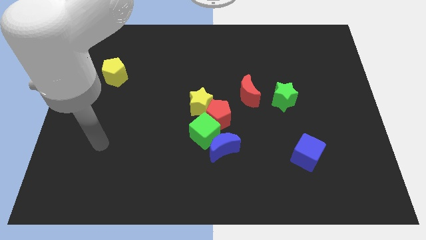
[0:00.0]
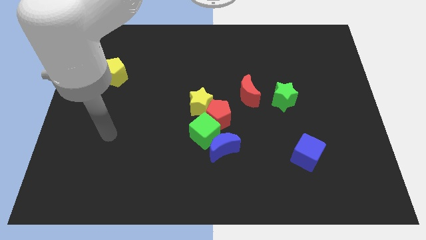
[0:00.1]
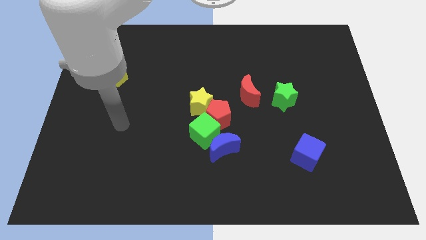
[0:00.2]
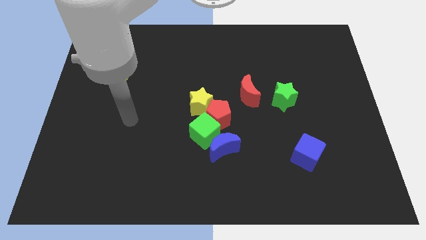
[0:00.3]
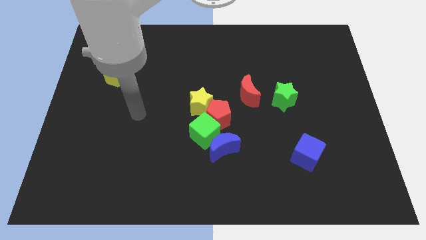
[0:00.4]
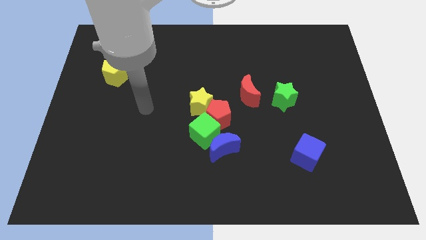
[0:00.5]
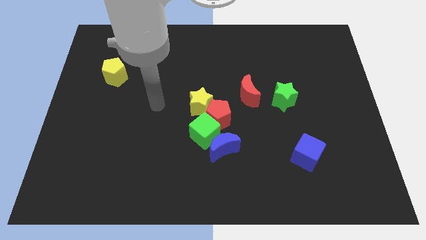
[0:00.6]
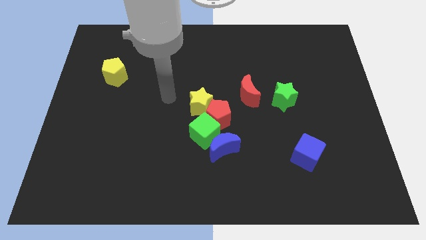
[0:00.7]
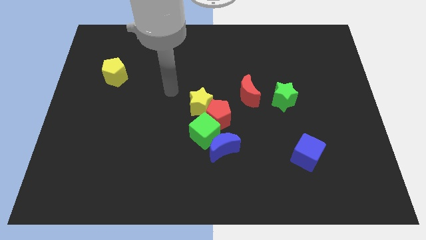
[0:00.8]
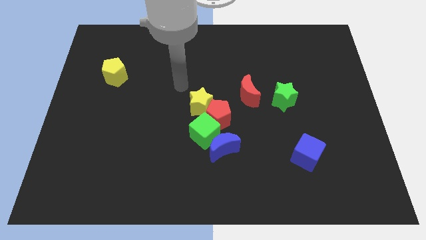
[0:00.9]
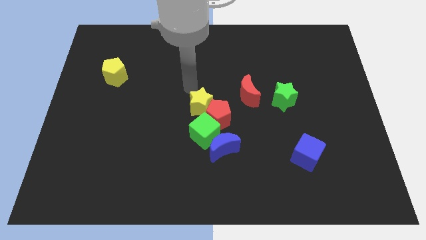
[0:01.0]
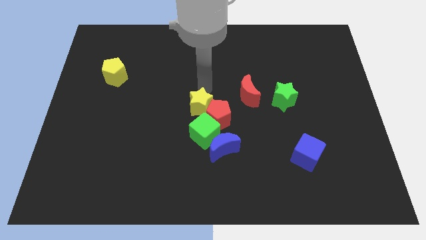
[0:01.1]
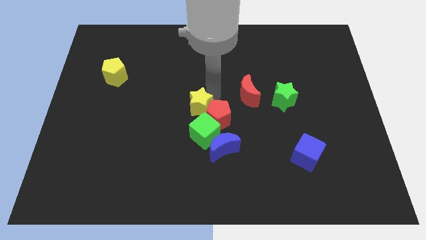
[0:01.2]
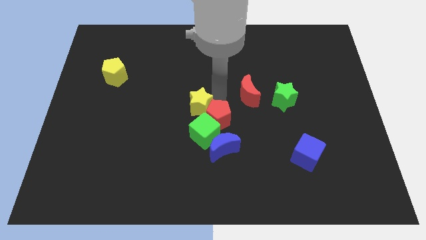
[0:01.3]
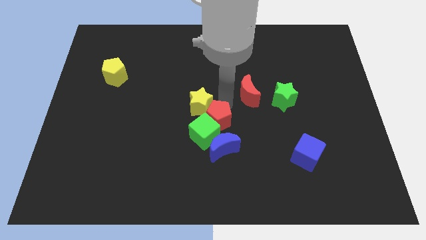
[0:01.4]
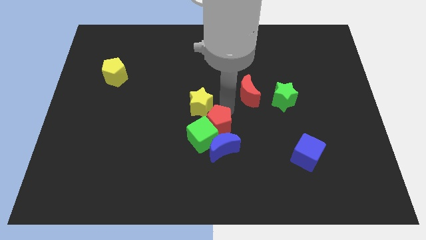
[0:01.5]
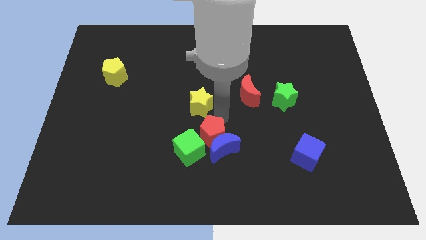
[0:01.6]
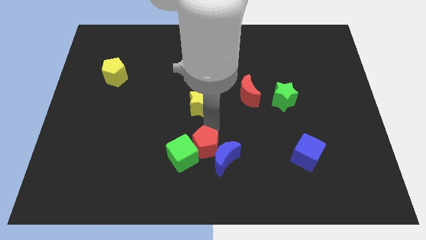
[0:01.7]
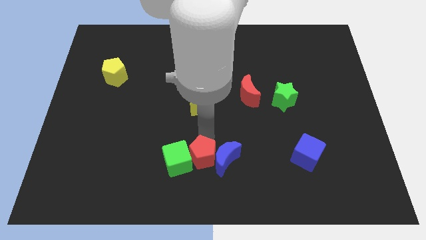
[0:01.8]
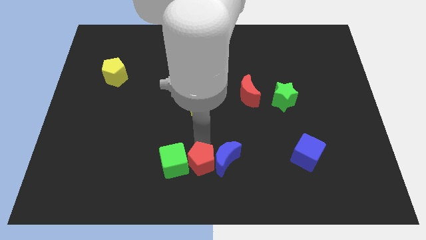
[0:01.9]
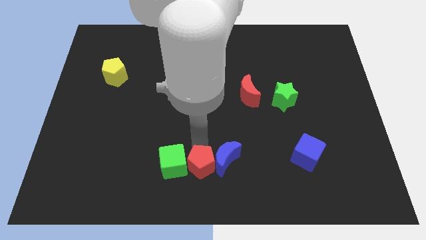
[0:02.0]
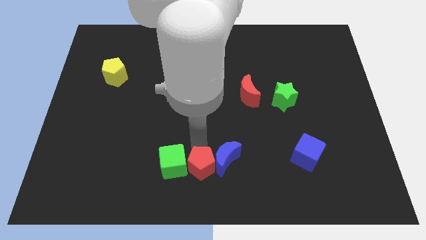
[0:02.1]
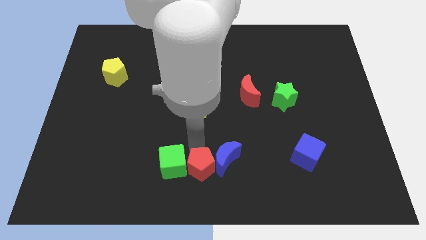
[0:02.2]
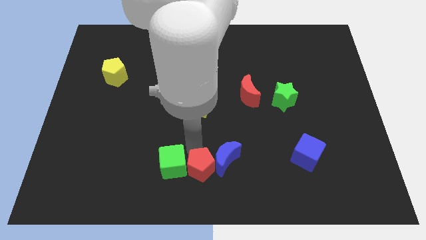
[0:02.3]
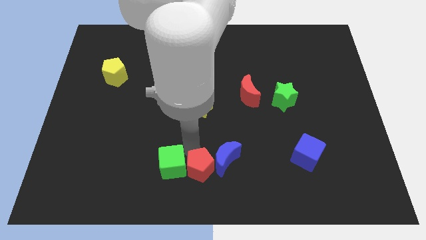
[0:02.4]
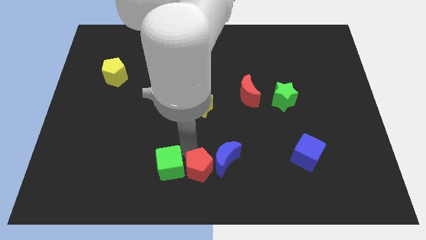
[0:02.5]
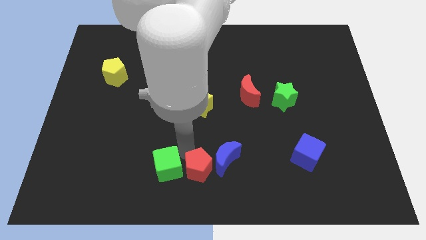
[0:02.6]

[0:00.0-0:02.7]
move the green cube away from the blue moon, red pentagon, and yellow star

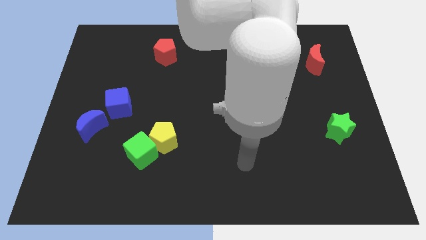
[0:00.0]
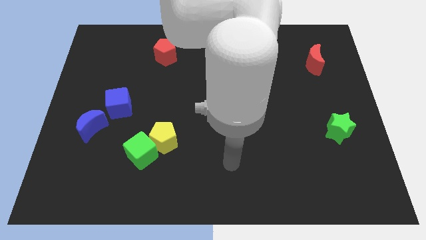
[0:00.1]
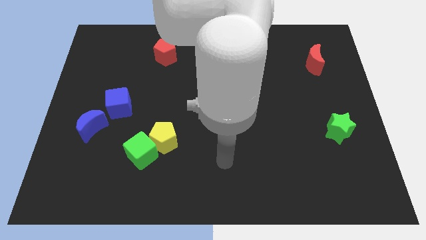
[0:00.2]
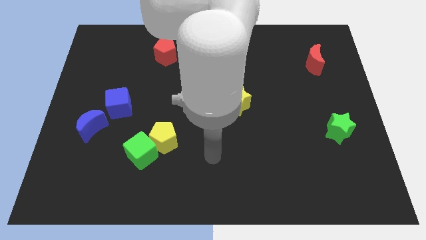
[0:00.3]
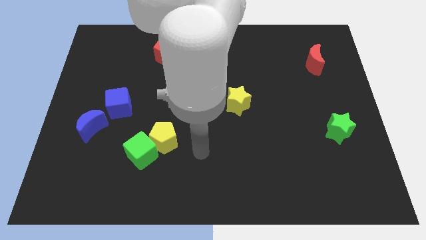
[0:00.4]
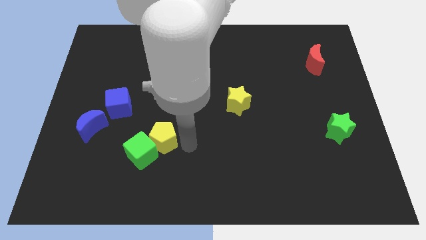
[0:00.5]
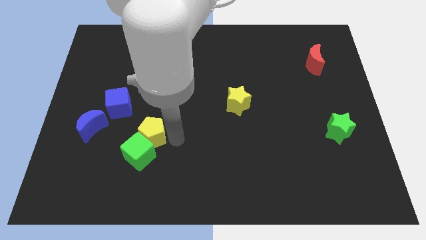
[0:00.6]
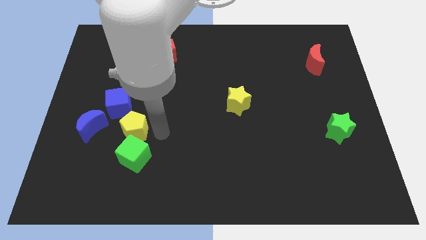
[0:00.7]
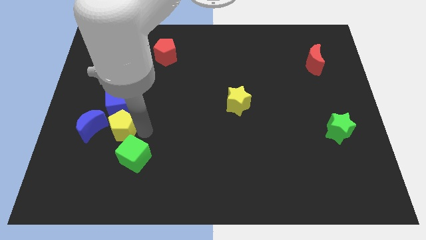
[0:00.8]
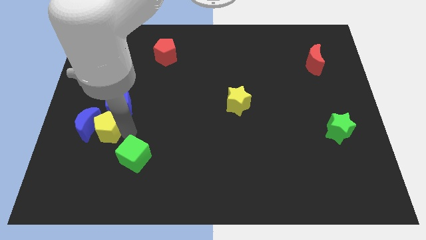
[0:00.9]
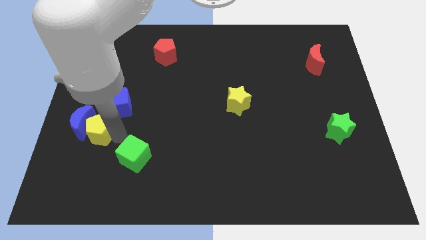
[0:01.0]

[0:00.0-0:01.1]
separate the green cube from the yellow pentagon

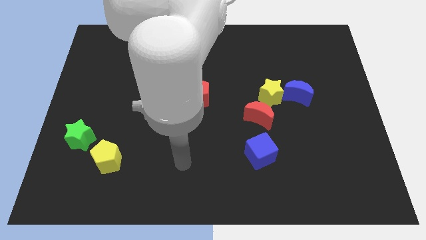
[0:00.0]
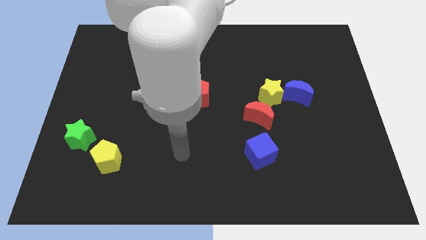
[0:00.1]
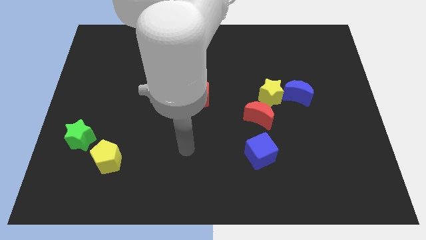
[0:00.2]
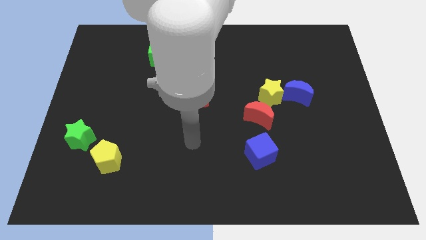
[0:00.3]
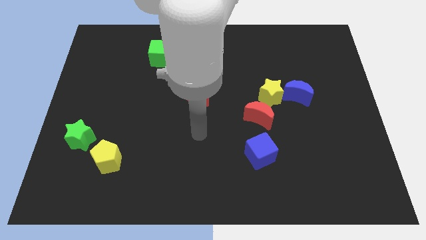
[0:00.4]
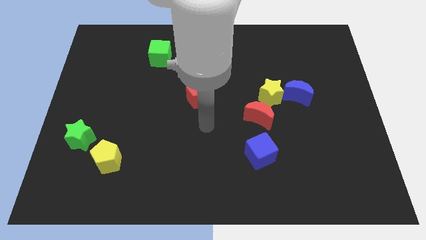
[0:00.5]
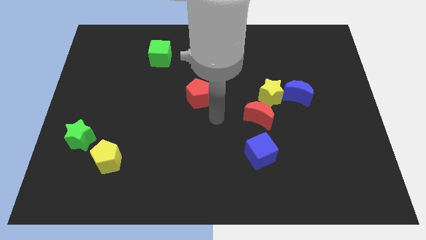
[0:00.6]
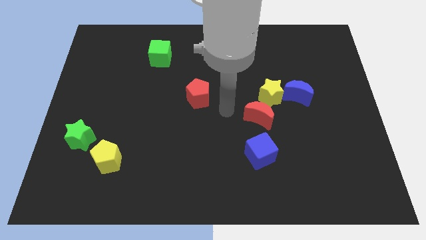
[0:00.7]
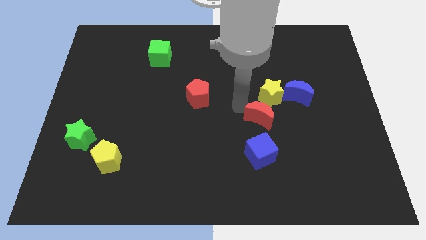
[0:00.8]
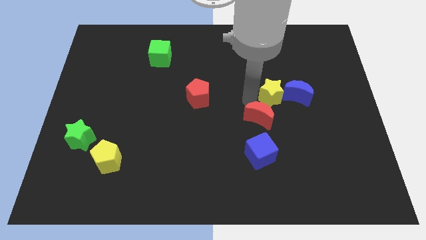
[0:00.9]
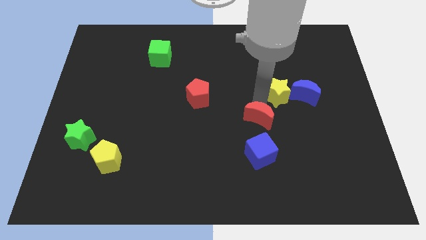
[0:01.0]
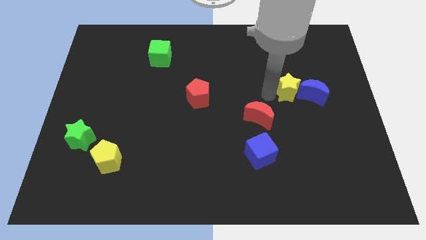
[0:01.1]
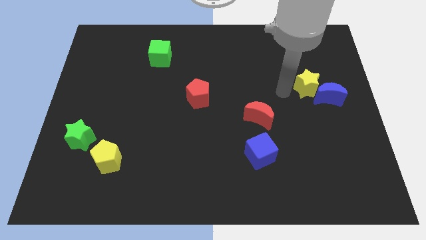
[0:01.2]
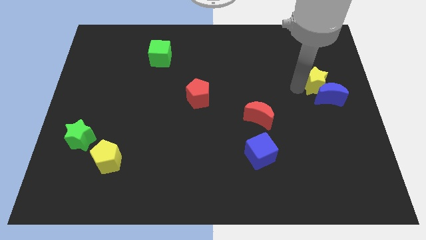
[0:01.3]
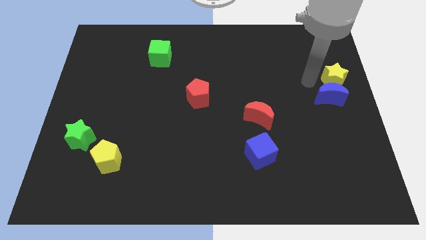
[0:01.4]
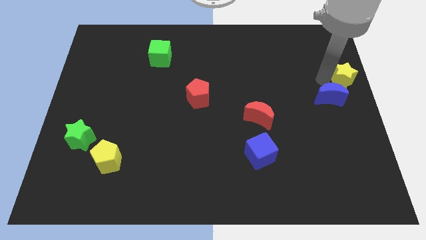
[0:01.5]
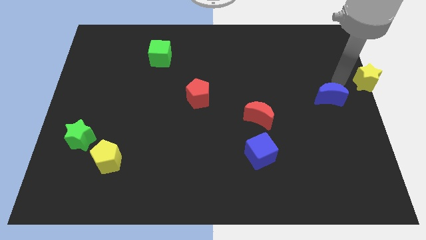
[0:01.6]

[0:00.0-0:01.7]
move the blue moon away from the yellow star

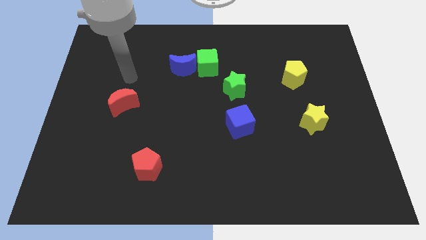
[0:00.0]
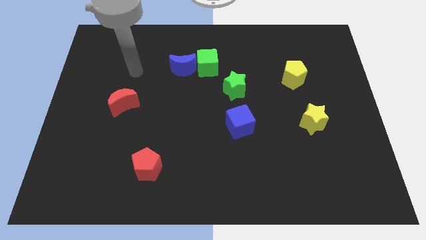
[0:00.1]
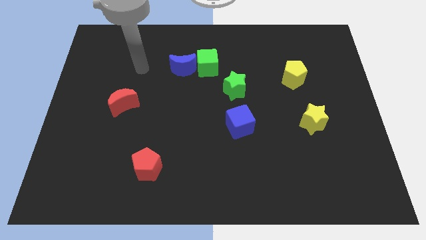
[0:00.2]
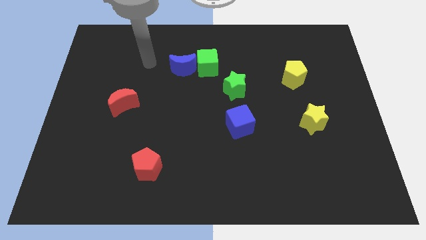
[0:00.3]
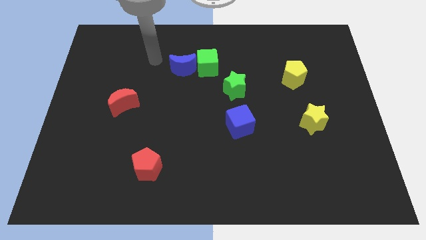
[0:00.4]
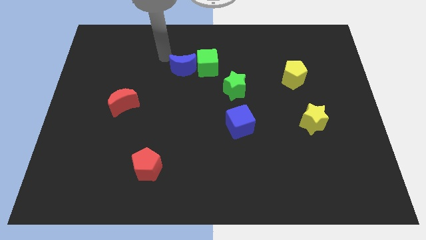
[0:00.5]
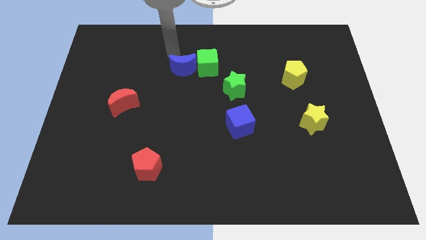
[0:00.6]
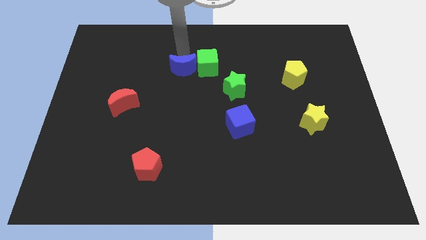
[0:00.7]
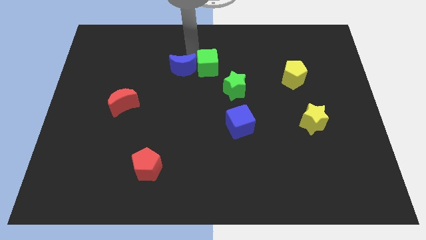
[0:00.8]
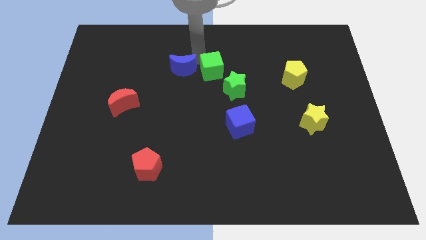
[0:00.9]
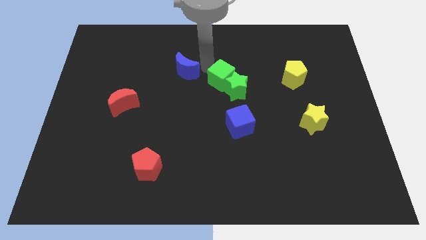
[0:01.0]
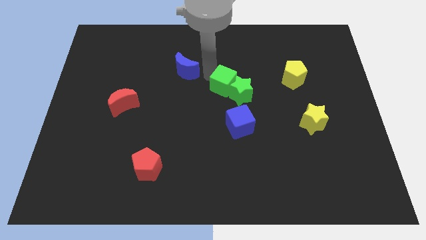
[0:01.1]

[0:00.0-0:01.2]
pull the blue moon apart from the green cube

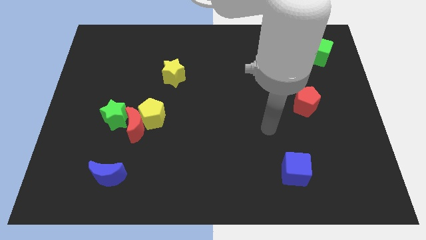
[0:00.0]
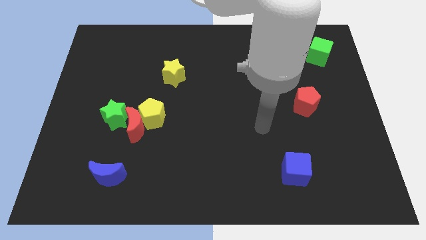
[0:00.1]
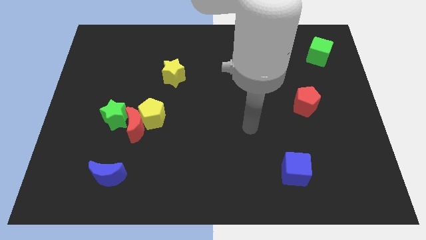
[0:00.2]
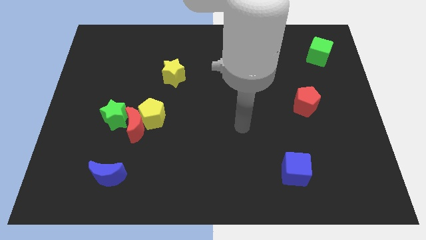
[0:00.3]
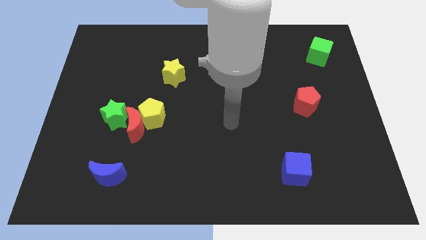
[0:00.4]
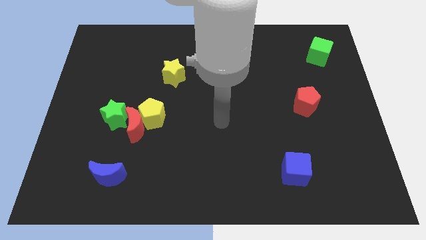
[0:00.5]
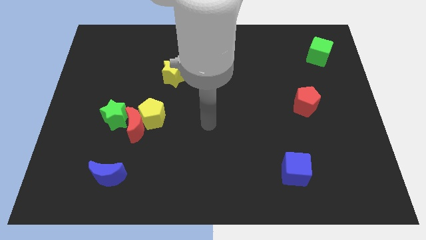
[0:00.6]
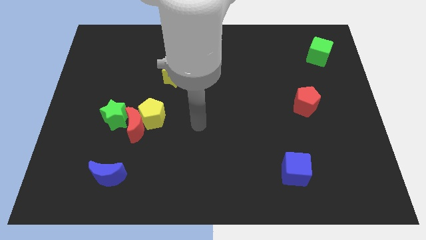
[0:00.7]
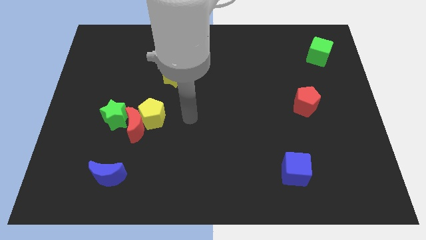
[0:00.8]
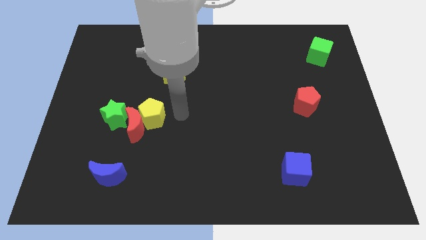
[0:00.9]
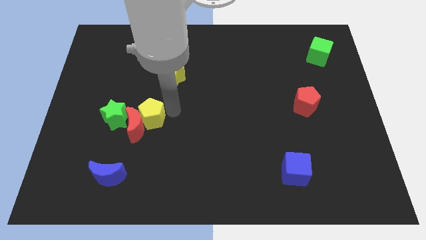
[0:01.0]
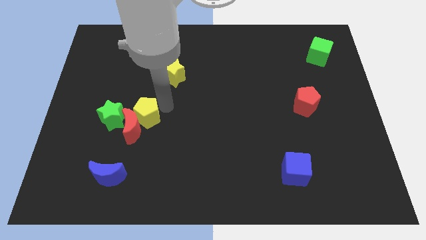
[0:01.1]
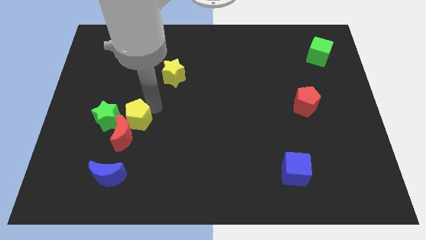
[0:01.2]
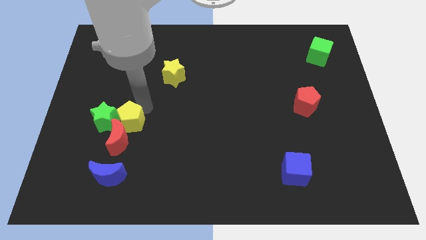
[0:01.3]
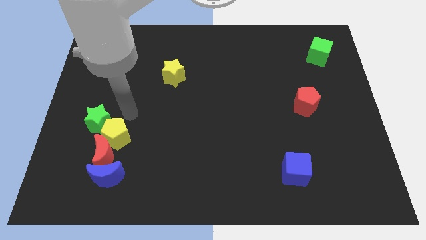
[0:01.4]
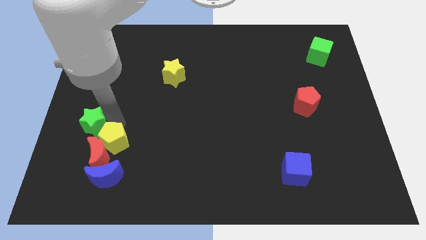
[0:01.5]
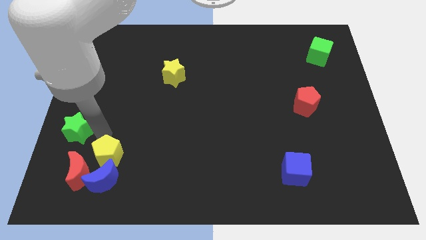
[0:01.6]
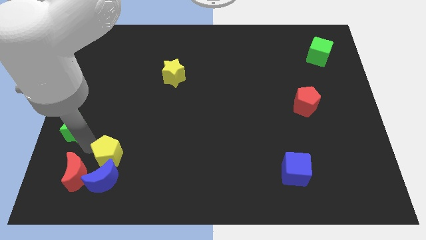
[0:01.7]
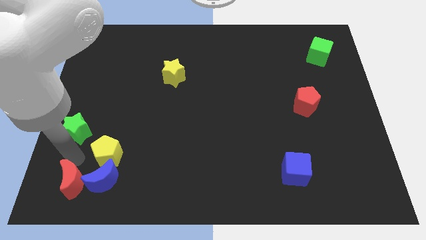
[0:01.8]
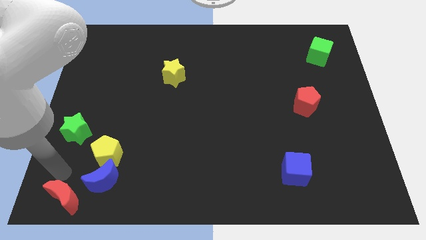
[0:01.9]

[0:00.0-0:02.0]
move the red moon away from the yellow pentagon and green star

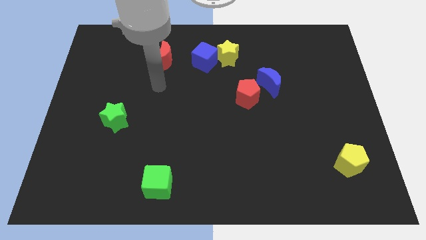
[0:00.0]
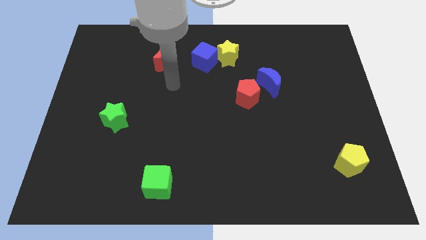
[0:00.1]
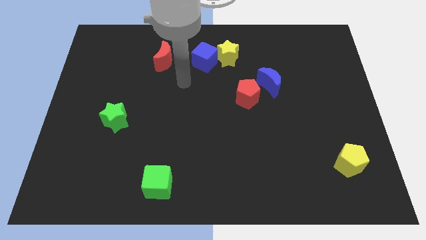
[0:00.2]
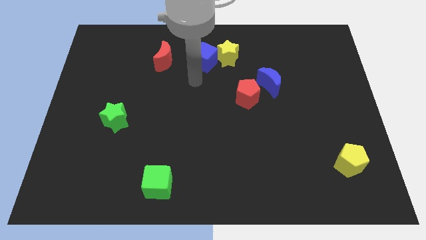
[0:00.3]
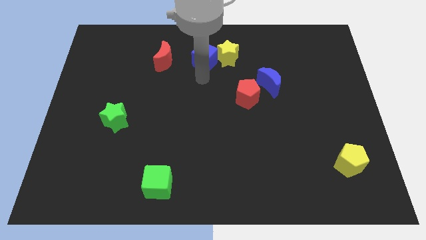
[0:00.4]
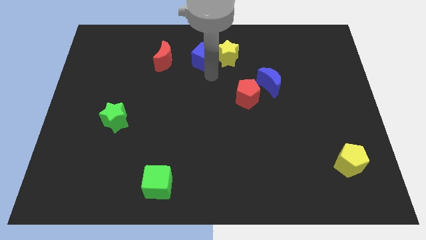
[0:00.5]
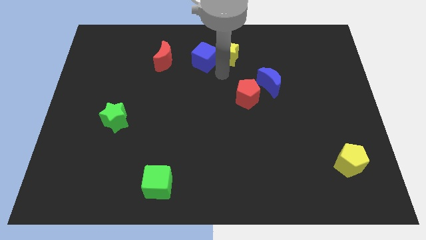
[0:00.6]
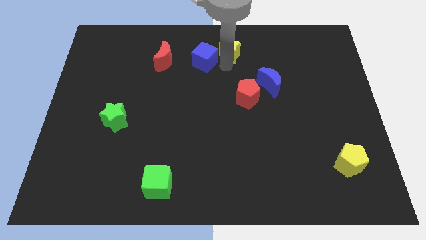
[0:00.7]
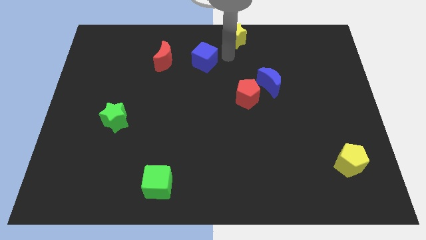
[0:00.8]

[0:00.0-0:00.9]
pull the blue cube apart from the yellow star
